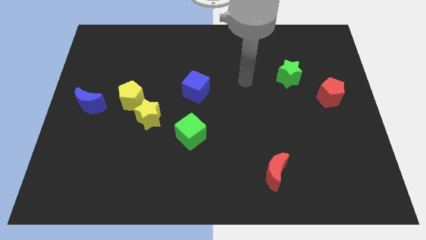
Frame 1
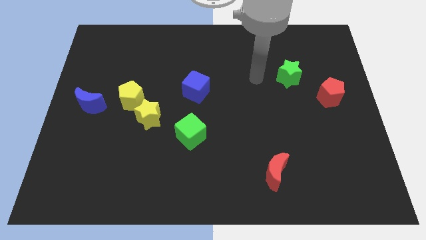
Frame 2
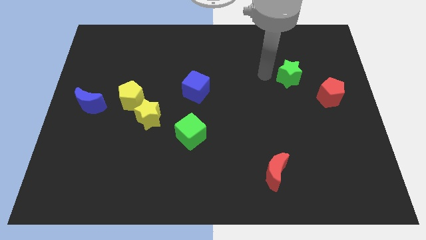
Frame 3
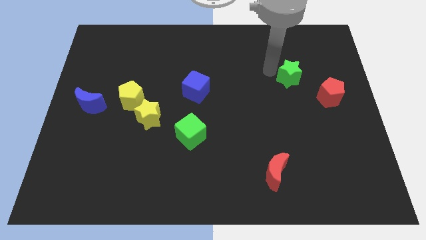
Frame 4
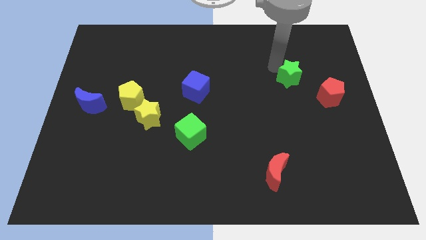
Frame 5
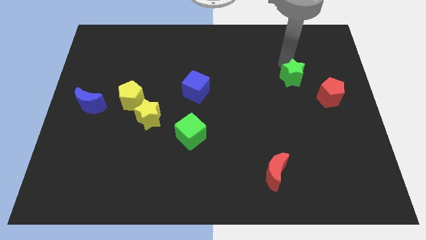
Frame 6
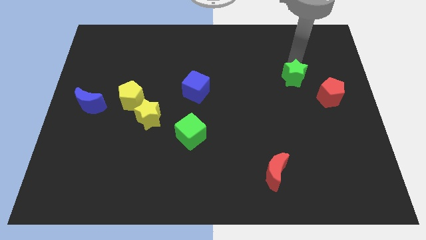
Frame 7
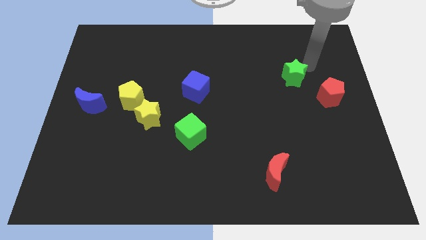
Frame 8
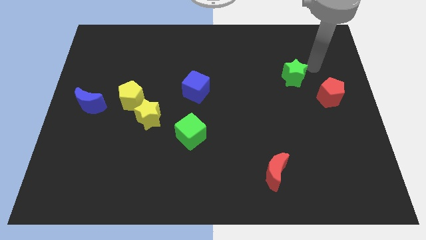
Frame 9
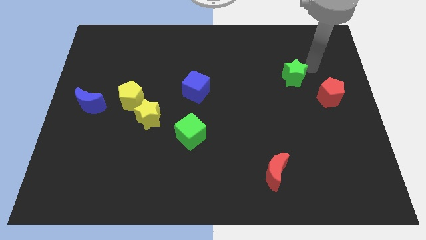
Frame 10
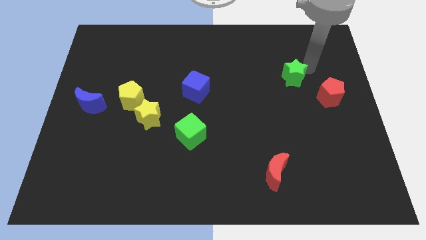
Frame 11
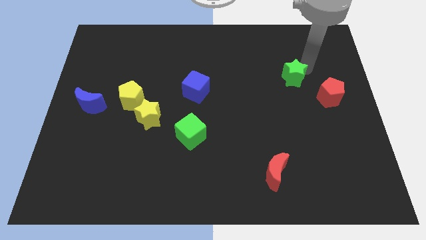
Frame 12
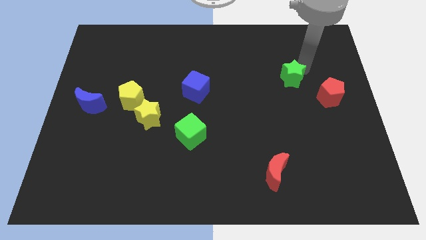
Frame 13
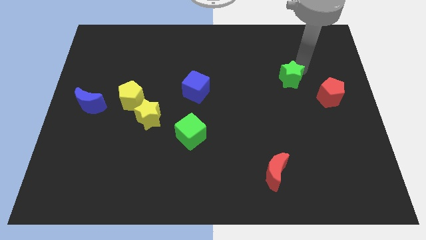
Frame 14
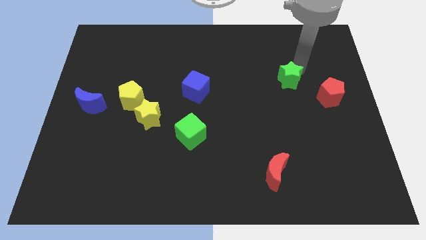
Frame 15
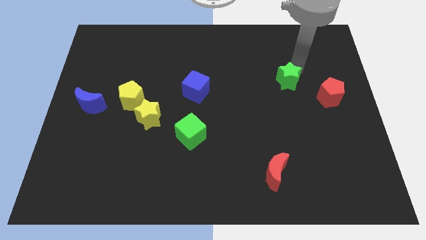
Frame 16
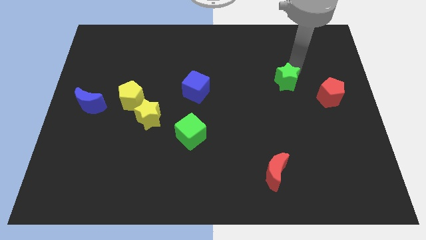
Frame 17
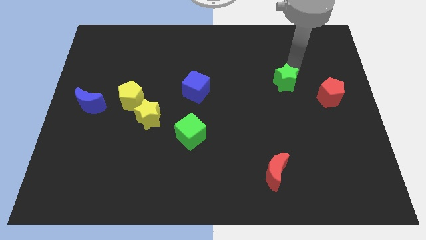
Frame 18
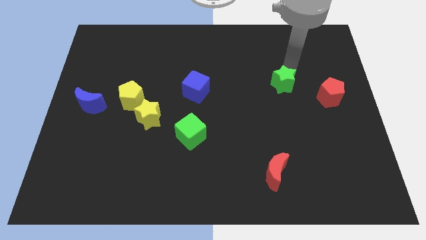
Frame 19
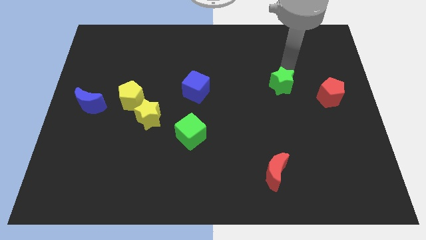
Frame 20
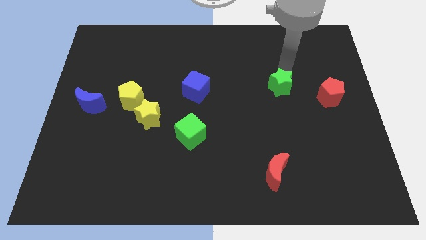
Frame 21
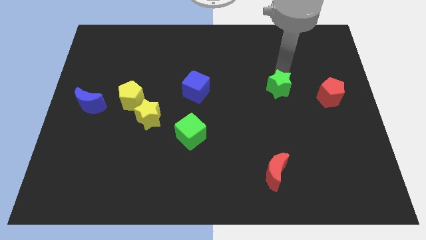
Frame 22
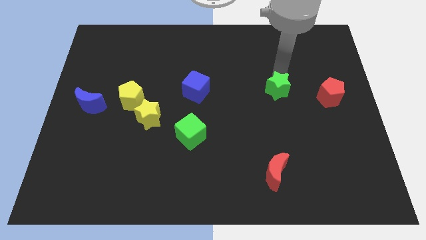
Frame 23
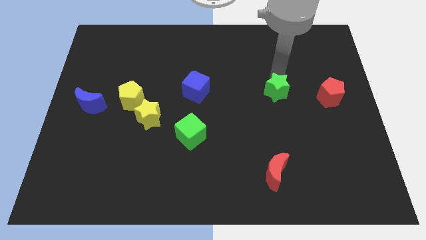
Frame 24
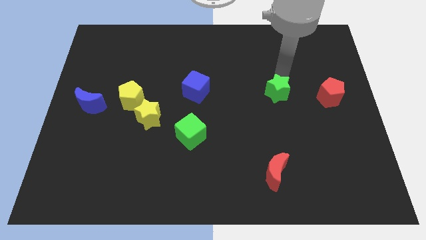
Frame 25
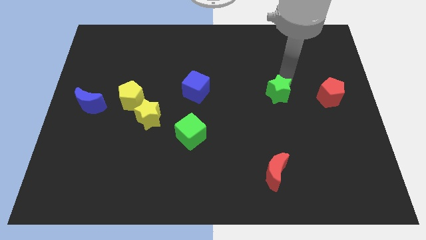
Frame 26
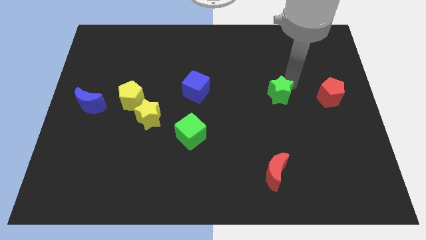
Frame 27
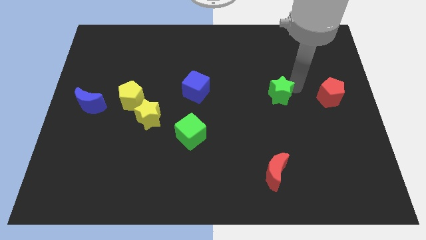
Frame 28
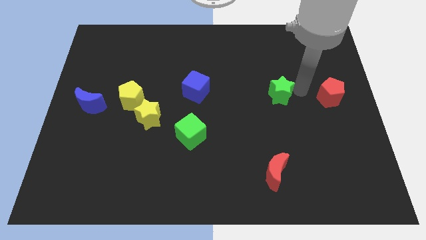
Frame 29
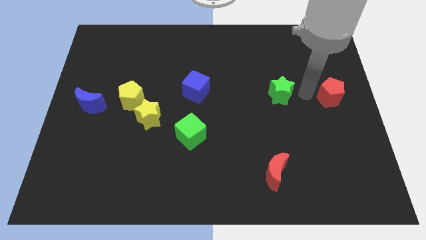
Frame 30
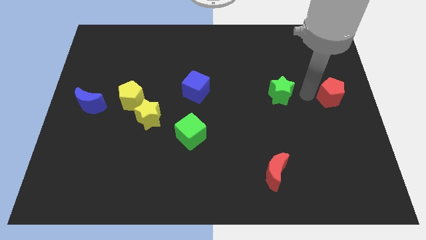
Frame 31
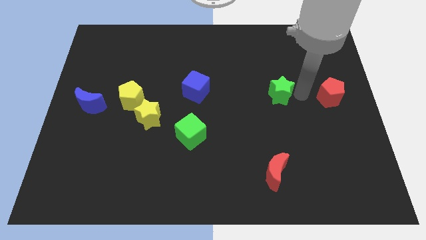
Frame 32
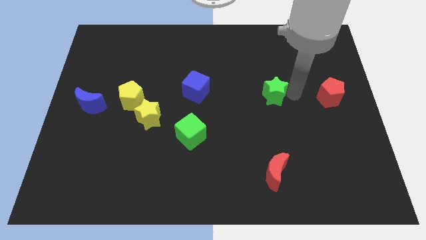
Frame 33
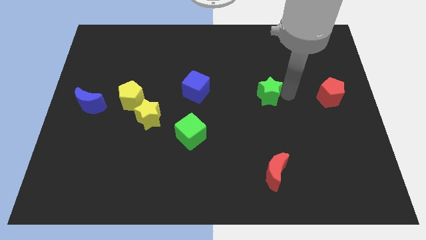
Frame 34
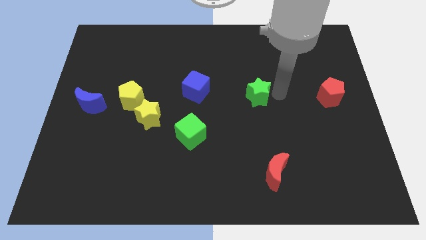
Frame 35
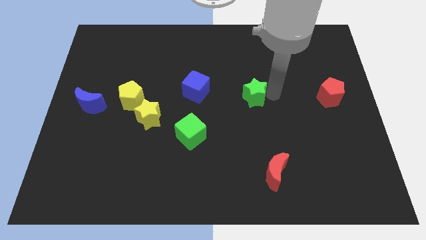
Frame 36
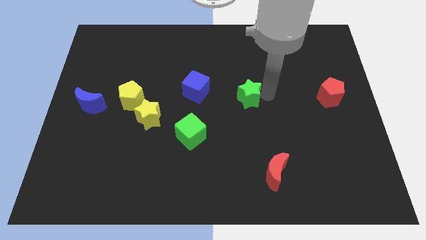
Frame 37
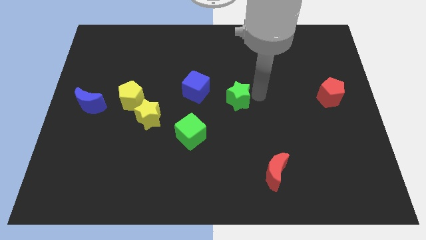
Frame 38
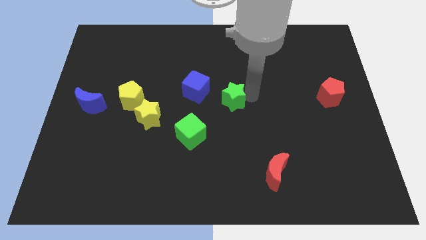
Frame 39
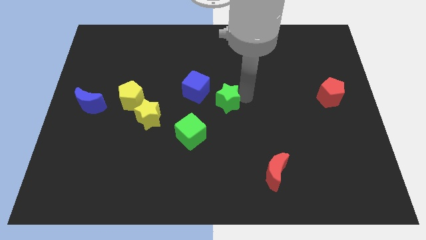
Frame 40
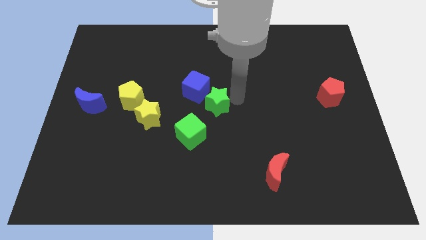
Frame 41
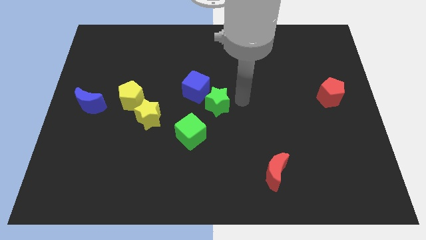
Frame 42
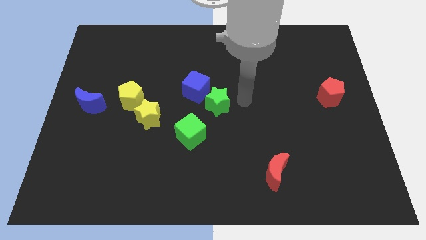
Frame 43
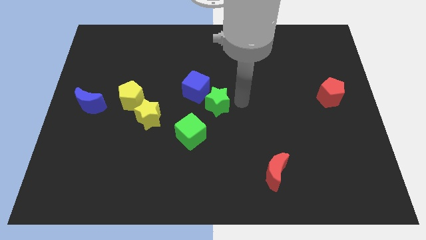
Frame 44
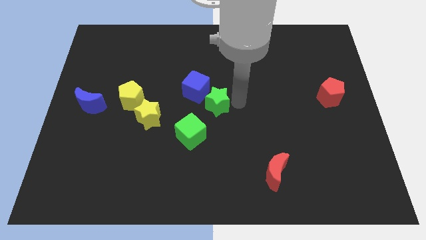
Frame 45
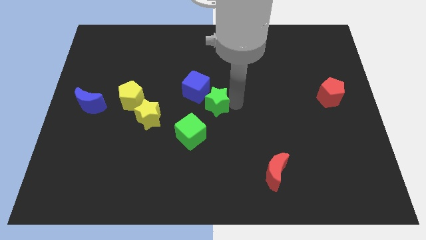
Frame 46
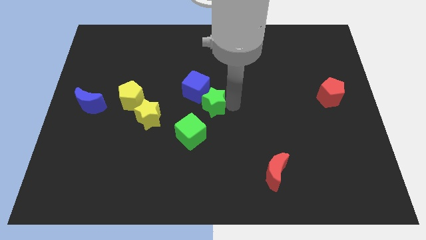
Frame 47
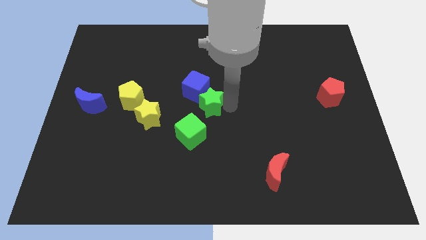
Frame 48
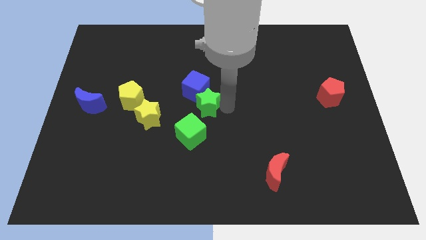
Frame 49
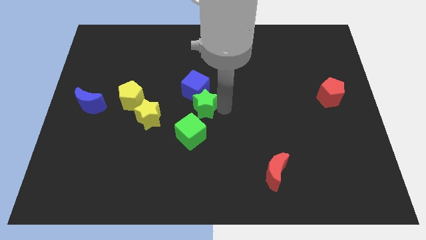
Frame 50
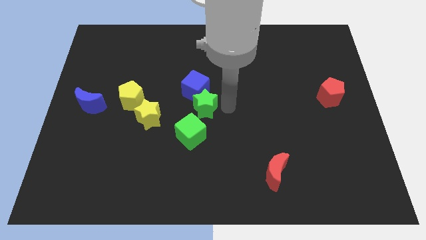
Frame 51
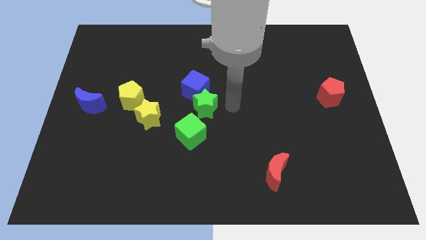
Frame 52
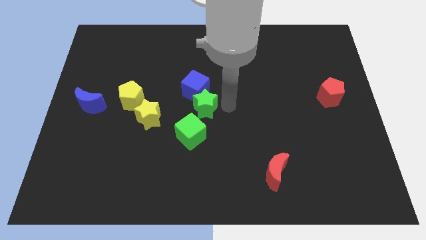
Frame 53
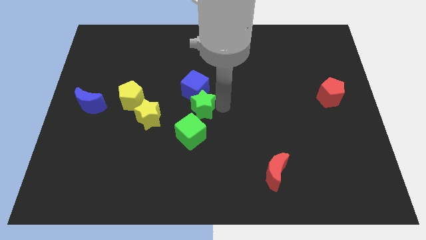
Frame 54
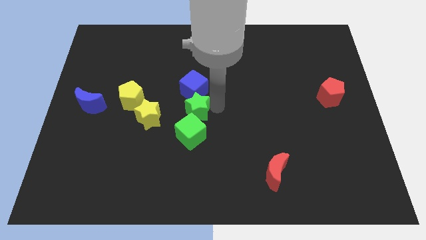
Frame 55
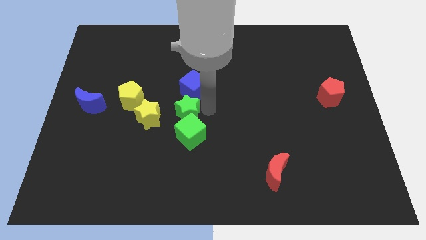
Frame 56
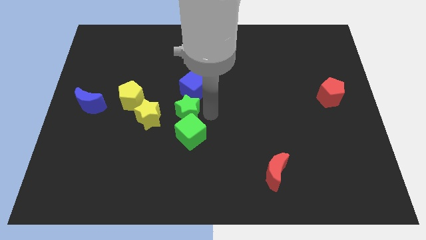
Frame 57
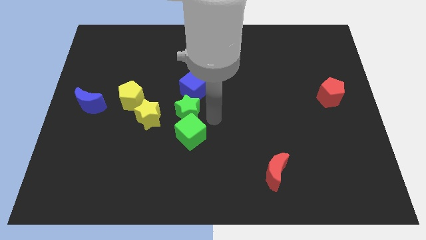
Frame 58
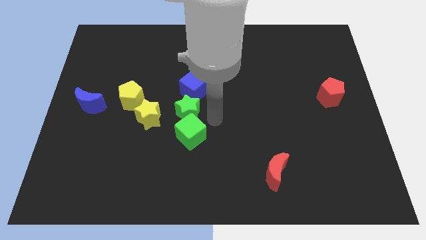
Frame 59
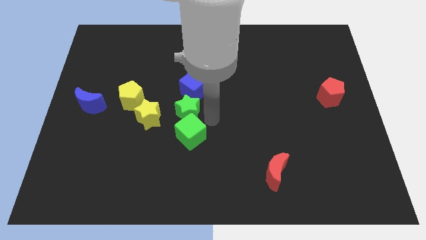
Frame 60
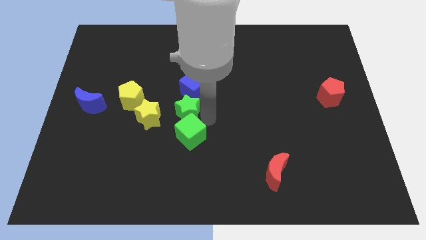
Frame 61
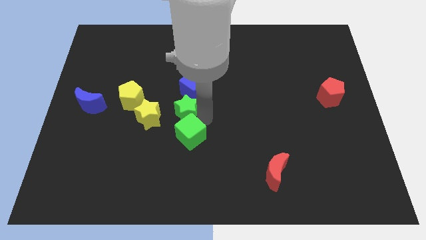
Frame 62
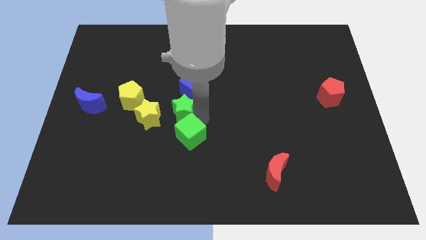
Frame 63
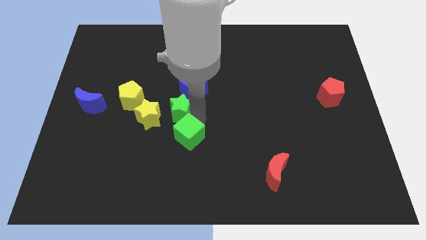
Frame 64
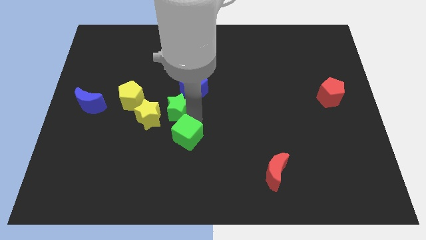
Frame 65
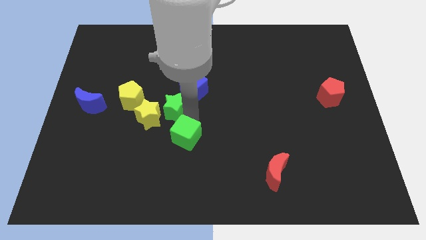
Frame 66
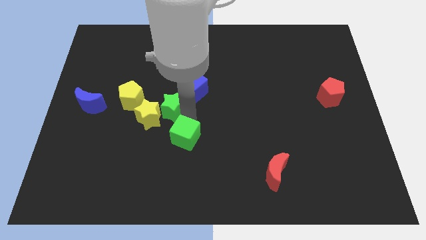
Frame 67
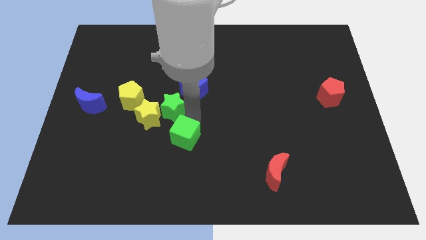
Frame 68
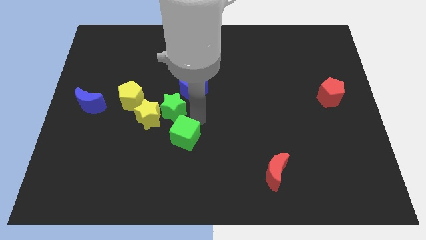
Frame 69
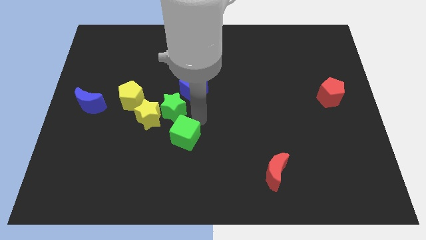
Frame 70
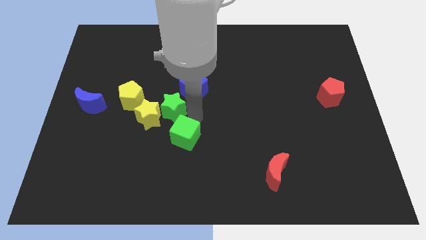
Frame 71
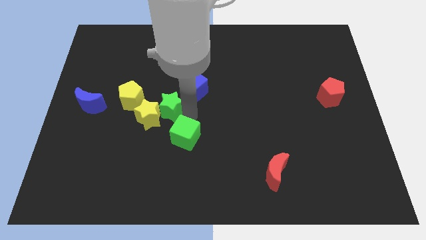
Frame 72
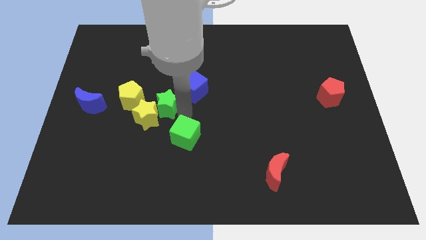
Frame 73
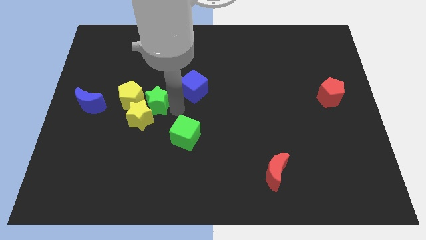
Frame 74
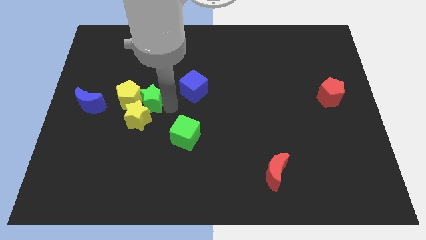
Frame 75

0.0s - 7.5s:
put the green star to the yellow pentagon
